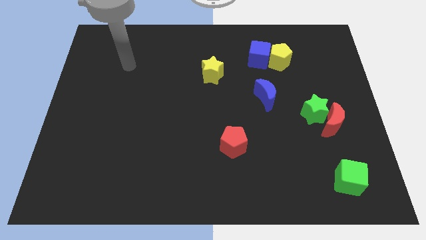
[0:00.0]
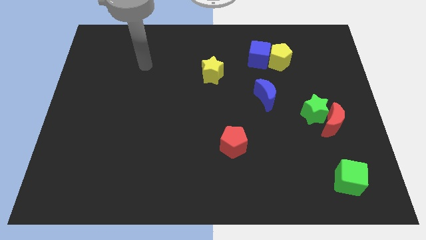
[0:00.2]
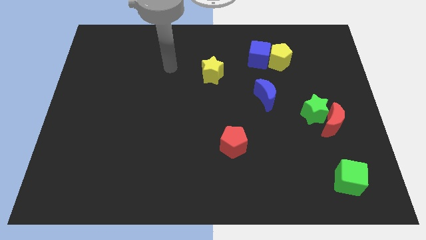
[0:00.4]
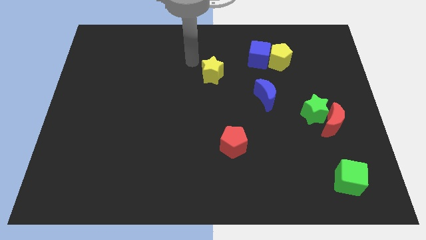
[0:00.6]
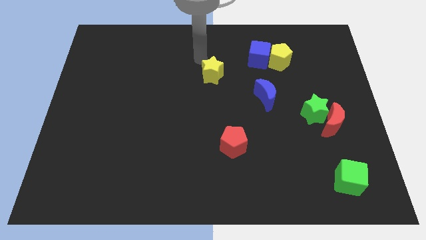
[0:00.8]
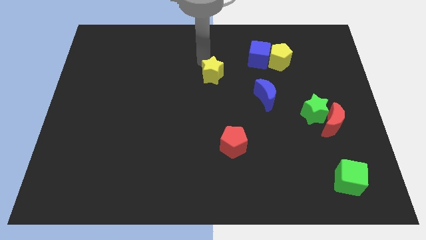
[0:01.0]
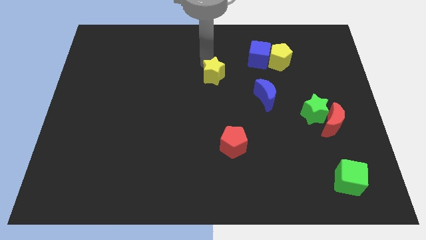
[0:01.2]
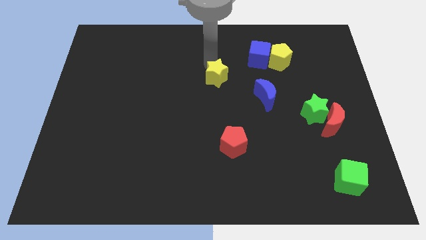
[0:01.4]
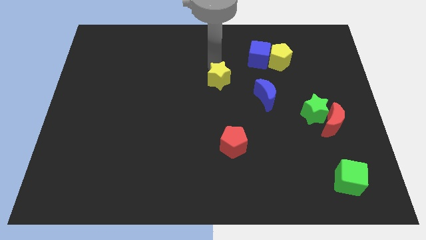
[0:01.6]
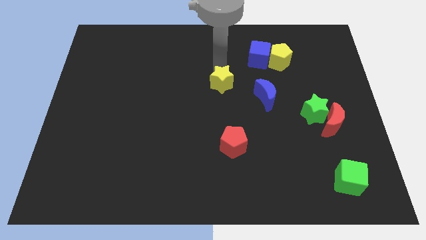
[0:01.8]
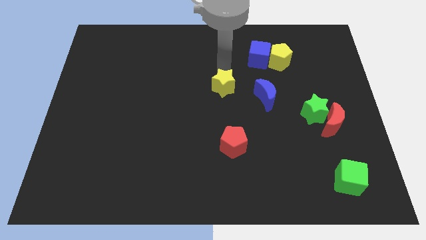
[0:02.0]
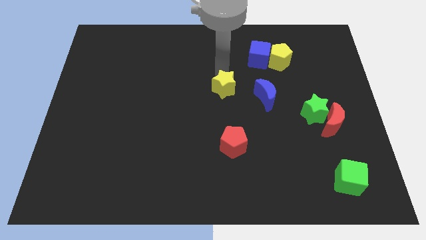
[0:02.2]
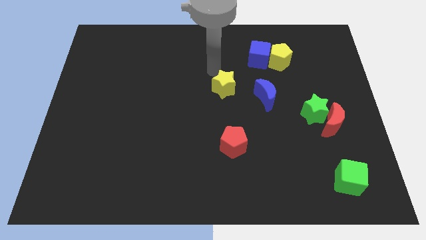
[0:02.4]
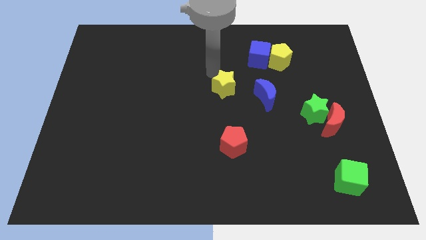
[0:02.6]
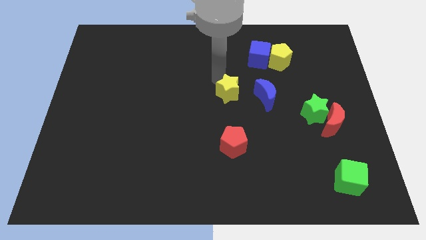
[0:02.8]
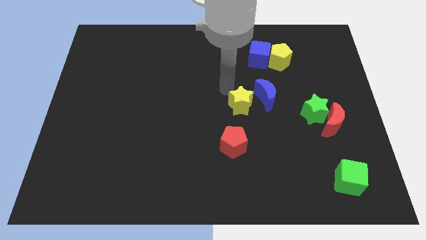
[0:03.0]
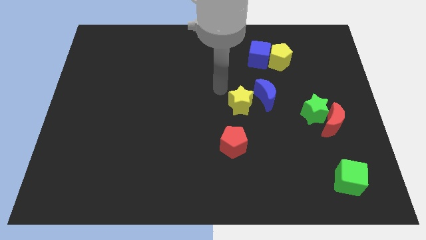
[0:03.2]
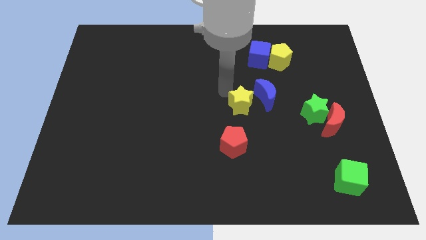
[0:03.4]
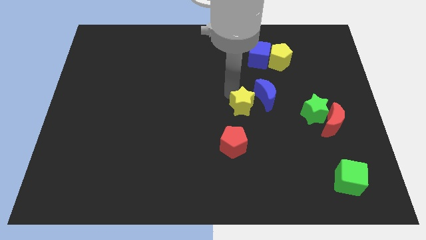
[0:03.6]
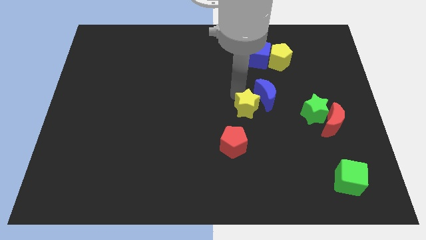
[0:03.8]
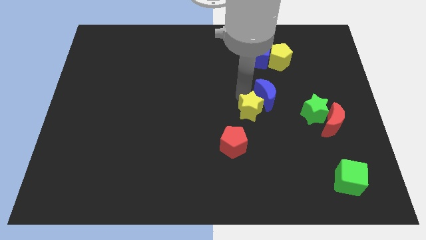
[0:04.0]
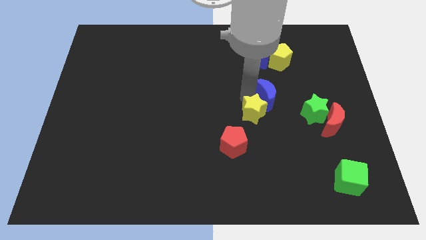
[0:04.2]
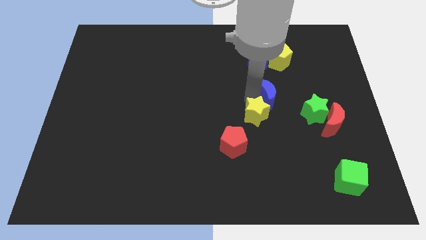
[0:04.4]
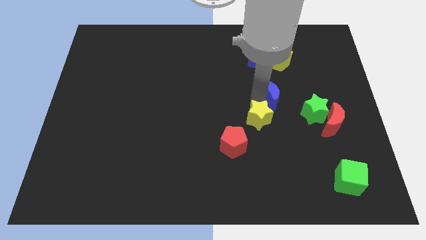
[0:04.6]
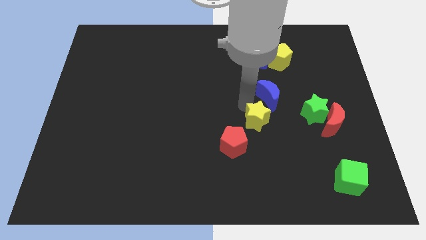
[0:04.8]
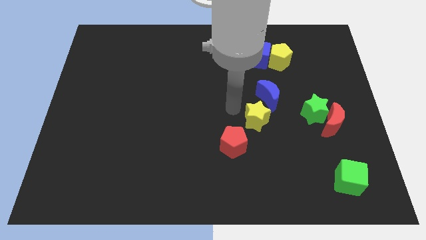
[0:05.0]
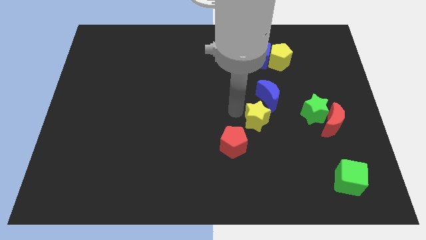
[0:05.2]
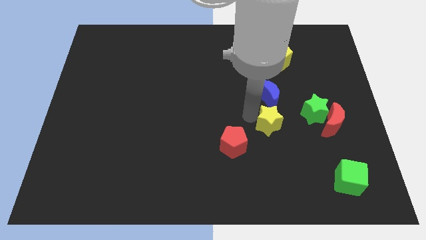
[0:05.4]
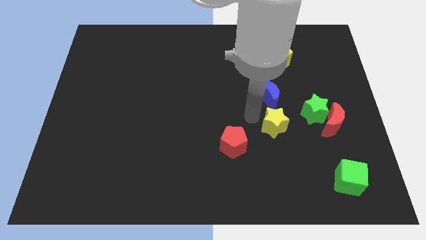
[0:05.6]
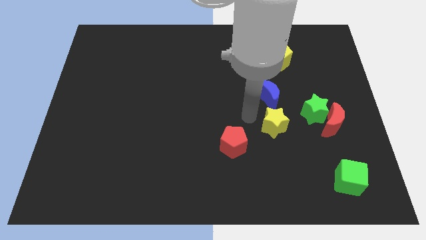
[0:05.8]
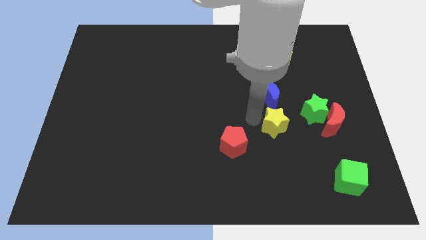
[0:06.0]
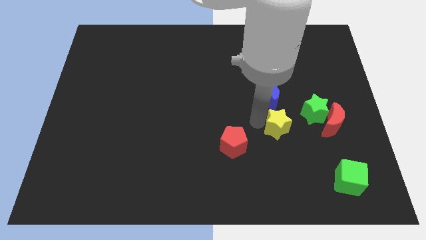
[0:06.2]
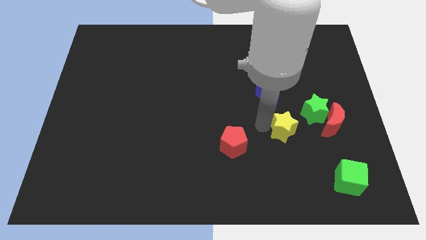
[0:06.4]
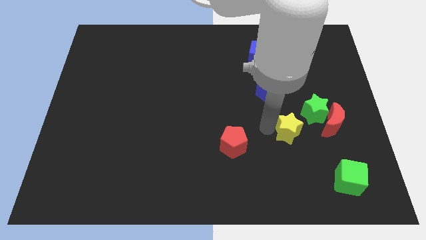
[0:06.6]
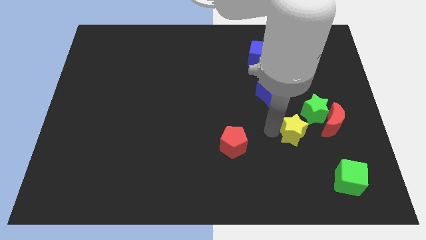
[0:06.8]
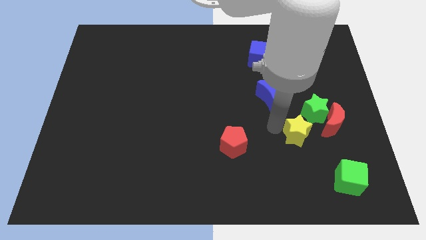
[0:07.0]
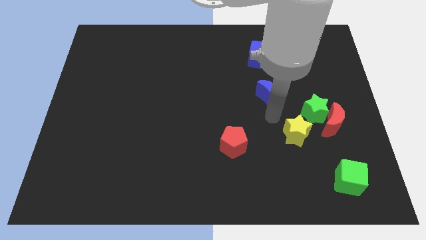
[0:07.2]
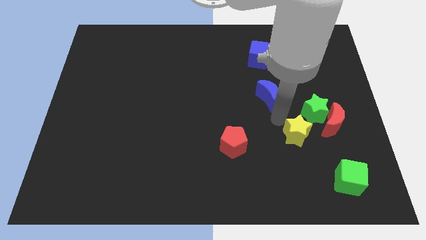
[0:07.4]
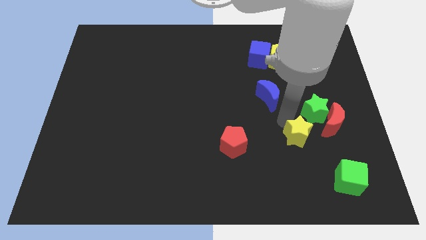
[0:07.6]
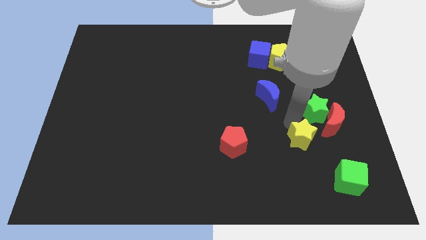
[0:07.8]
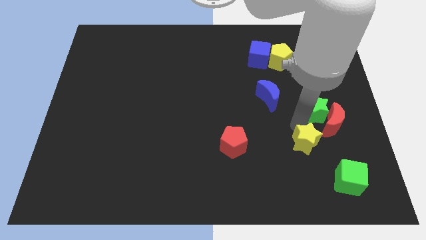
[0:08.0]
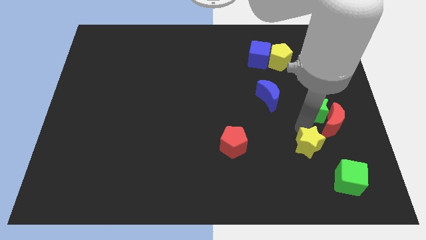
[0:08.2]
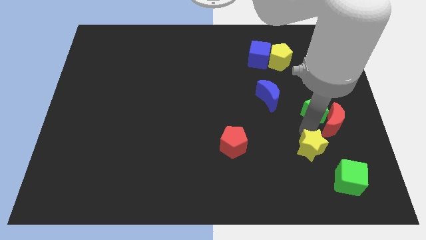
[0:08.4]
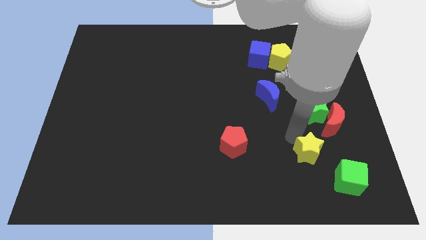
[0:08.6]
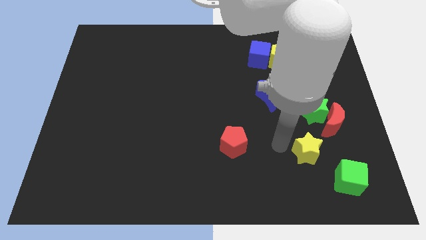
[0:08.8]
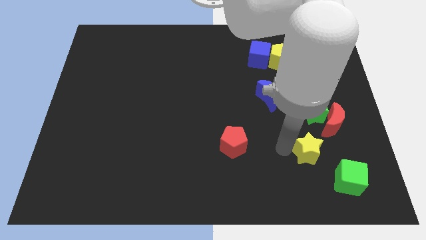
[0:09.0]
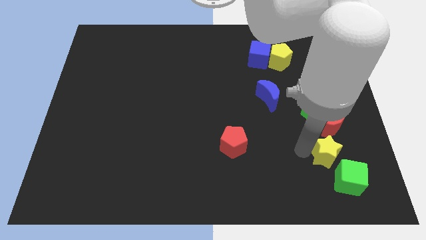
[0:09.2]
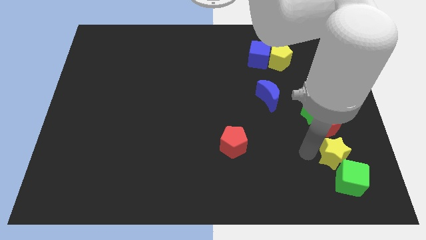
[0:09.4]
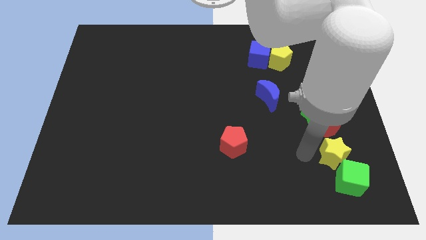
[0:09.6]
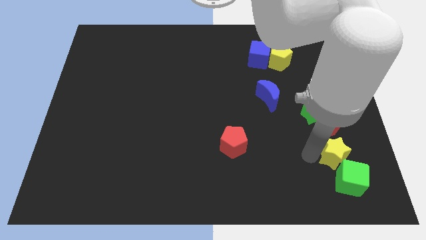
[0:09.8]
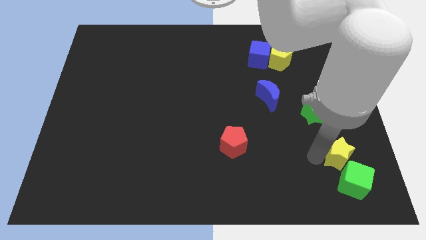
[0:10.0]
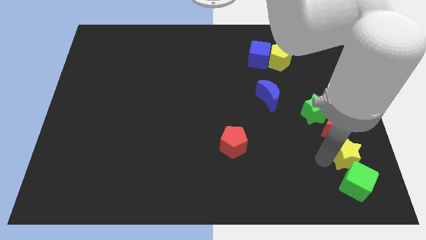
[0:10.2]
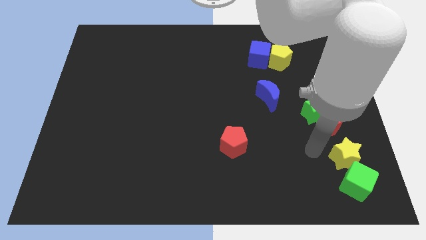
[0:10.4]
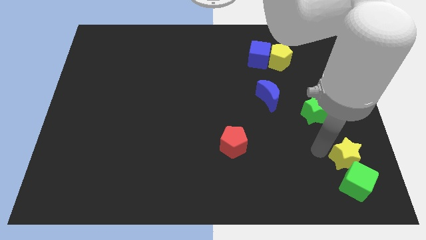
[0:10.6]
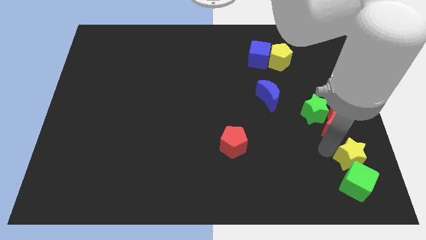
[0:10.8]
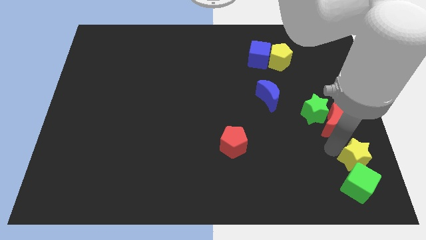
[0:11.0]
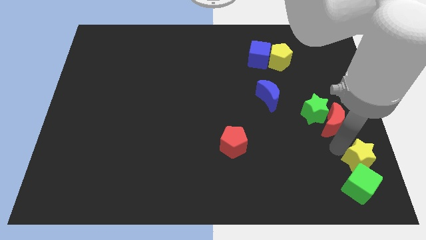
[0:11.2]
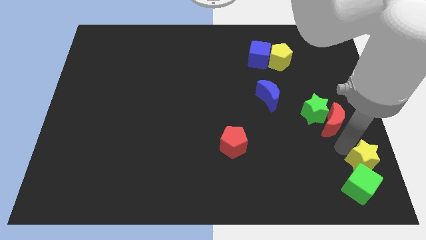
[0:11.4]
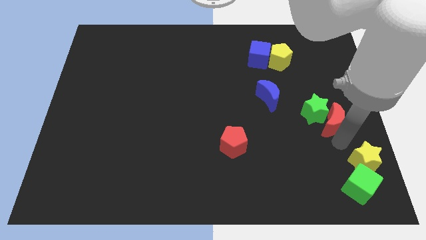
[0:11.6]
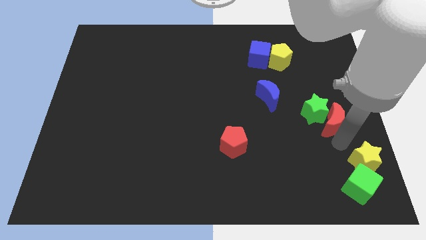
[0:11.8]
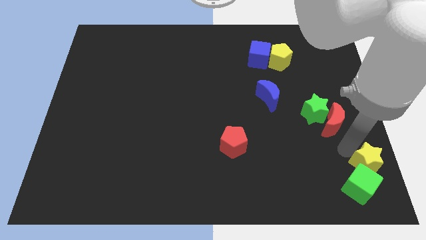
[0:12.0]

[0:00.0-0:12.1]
push the yellow star to the bottom right corner
